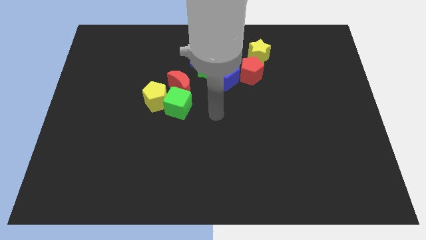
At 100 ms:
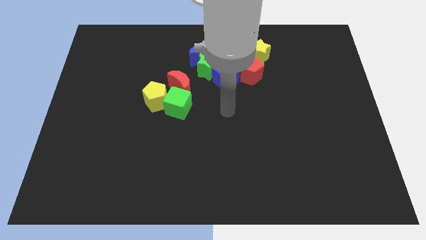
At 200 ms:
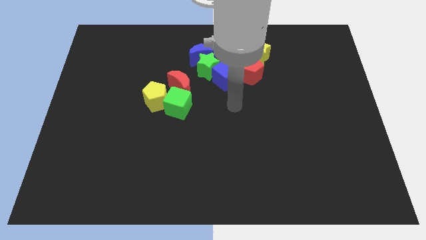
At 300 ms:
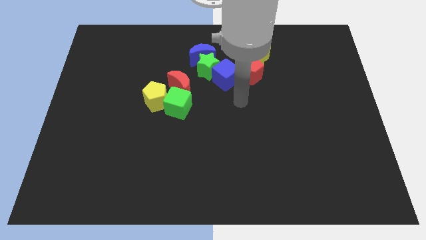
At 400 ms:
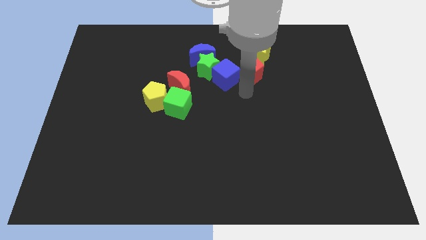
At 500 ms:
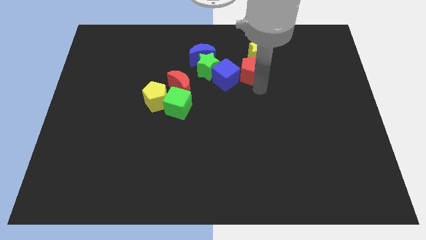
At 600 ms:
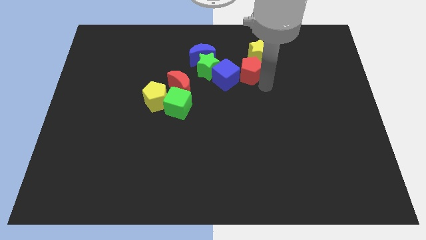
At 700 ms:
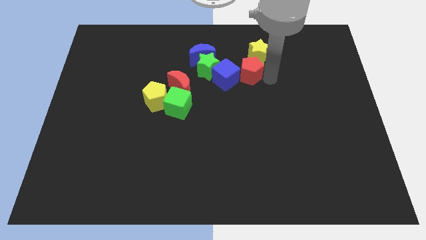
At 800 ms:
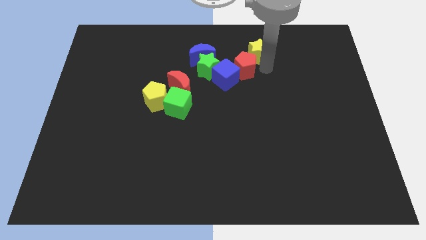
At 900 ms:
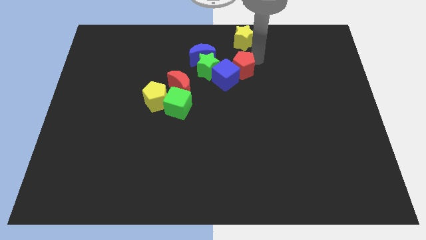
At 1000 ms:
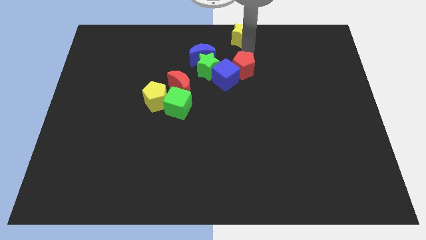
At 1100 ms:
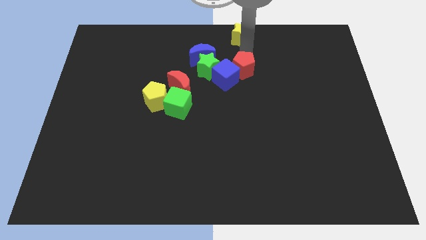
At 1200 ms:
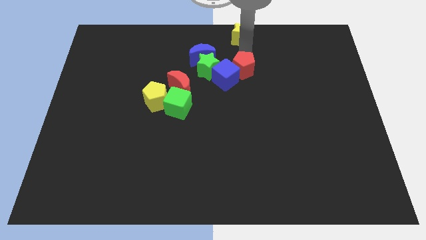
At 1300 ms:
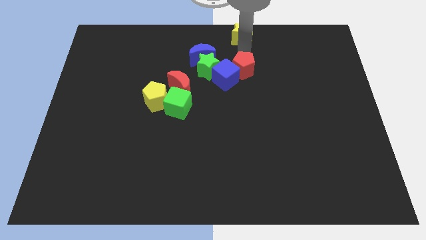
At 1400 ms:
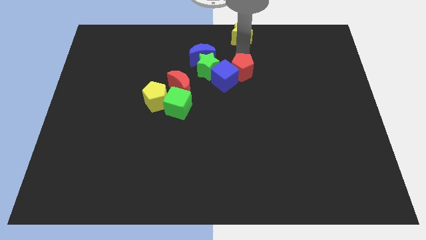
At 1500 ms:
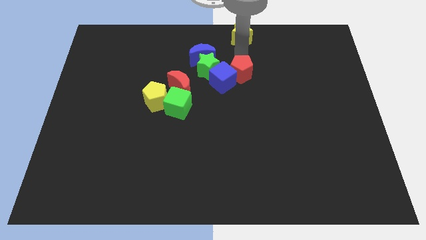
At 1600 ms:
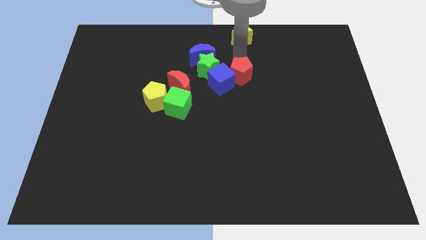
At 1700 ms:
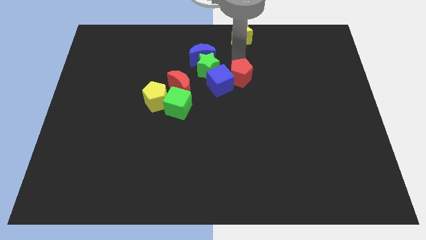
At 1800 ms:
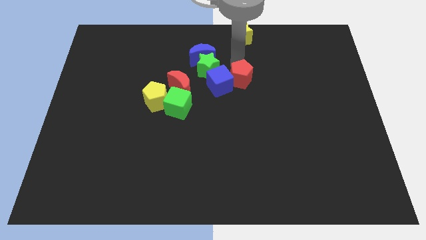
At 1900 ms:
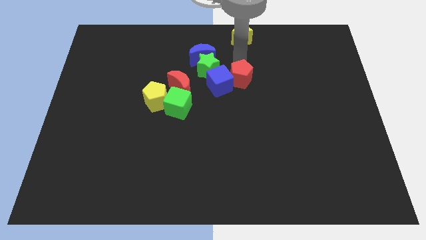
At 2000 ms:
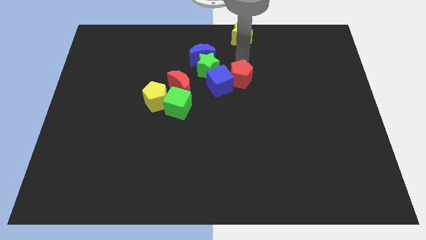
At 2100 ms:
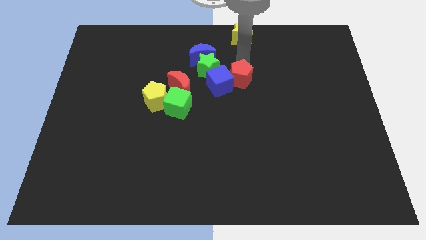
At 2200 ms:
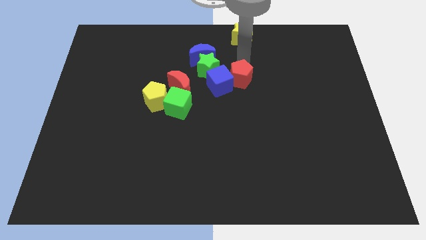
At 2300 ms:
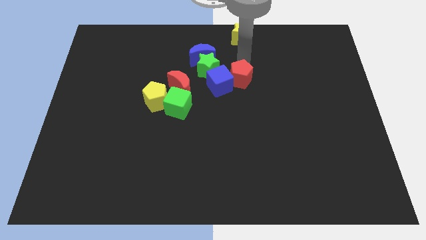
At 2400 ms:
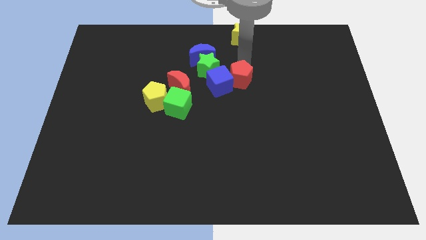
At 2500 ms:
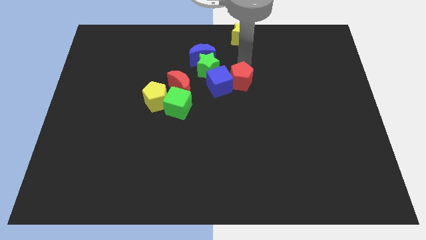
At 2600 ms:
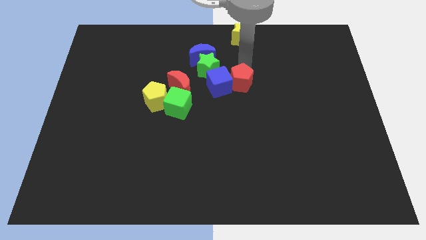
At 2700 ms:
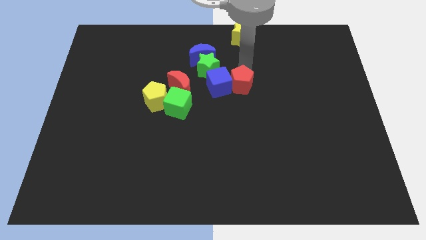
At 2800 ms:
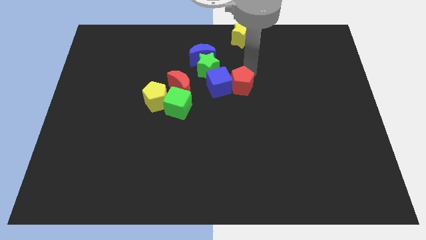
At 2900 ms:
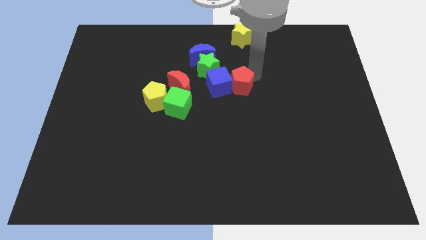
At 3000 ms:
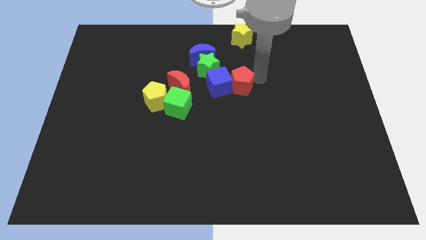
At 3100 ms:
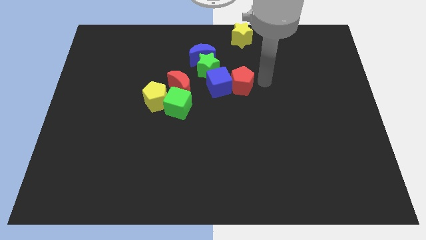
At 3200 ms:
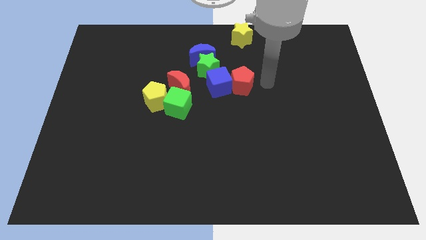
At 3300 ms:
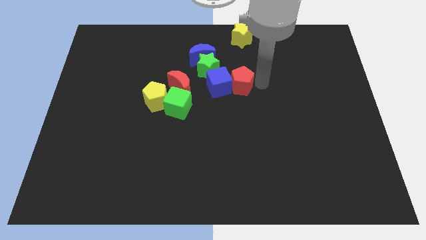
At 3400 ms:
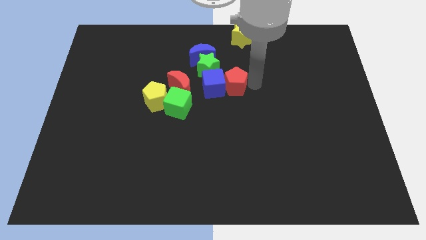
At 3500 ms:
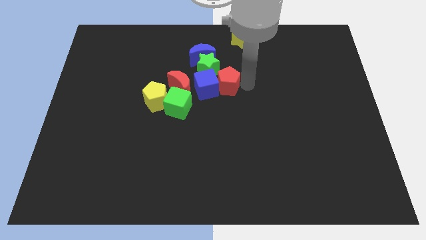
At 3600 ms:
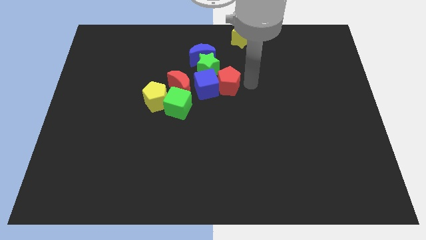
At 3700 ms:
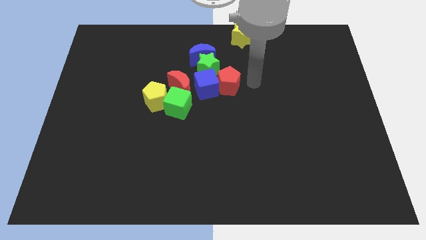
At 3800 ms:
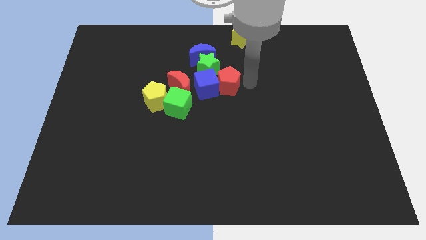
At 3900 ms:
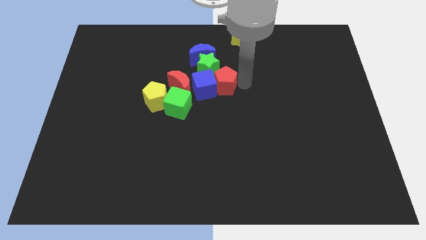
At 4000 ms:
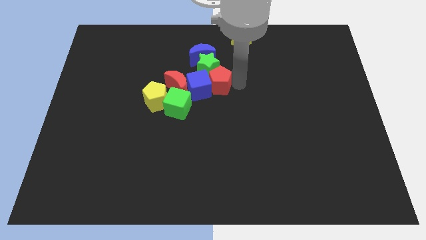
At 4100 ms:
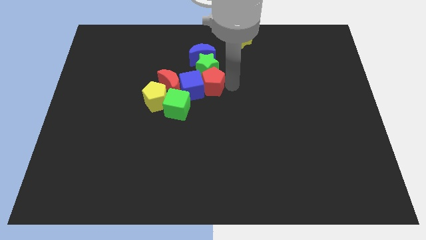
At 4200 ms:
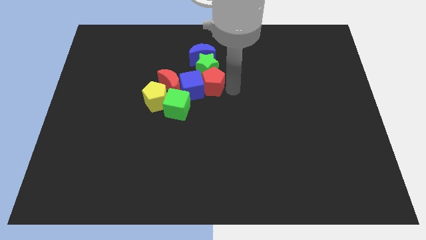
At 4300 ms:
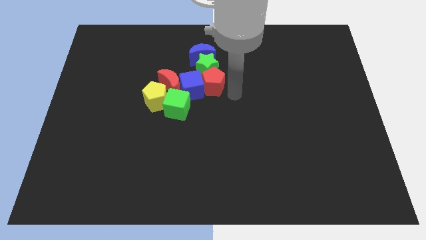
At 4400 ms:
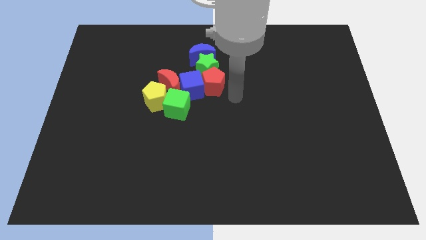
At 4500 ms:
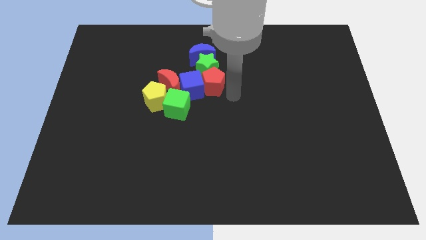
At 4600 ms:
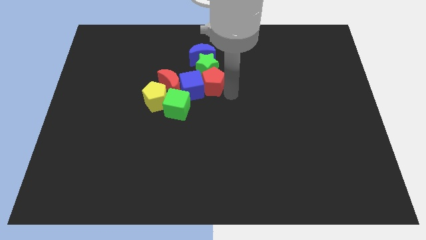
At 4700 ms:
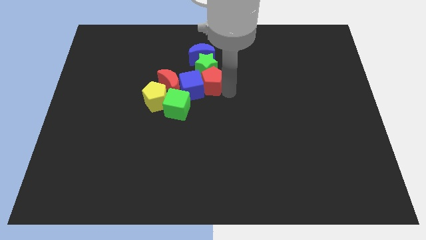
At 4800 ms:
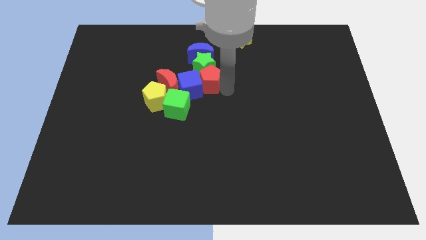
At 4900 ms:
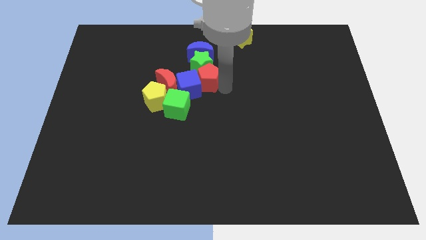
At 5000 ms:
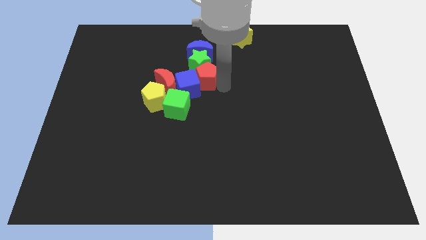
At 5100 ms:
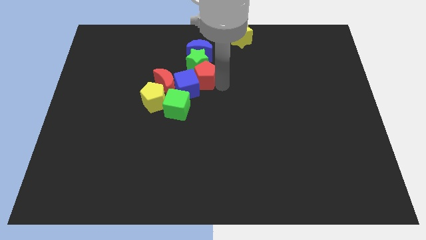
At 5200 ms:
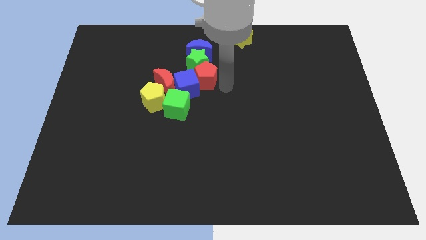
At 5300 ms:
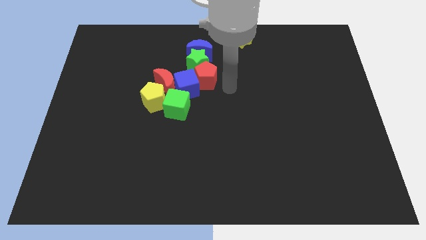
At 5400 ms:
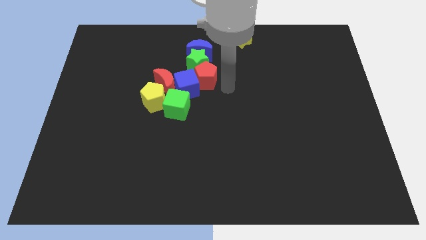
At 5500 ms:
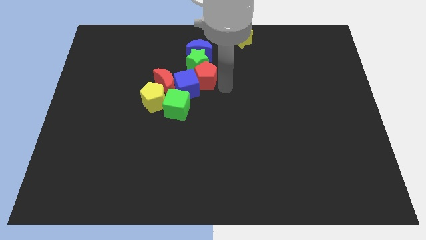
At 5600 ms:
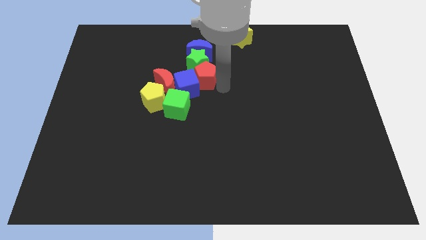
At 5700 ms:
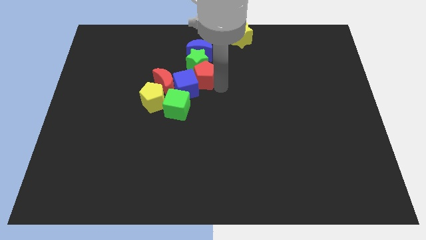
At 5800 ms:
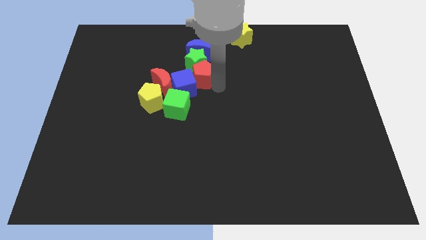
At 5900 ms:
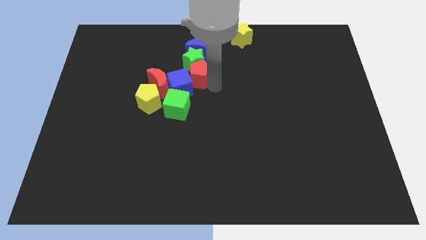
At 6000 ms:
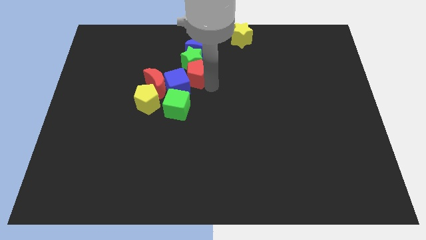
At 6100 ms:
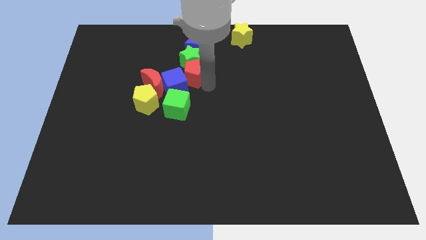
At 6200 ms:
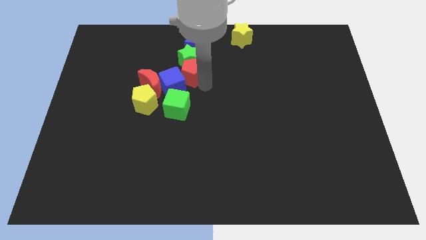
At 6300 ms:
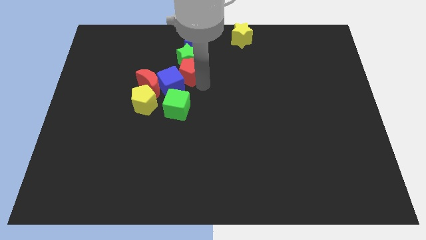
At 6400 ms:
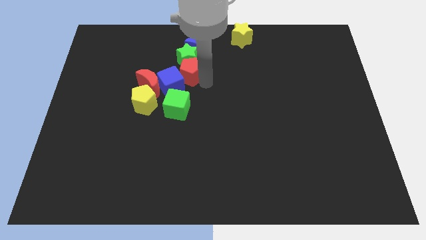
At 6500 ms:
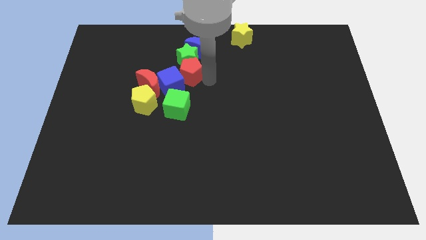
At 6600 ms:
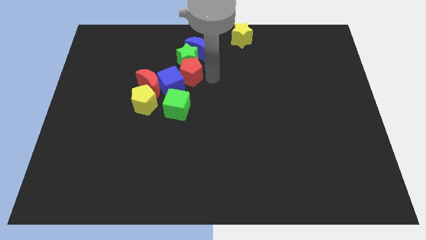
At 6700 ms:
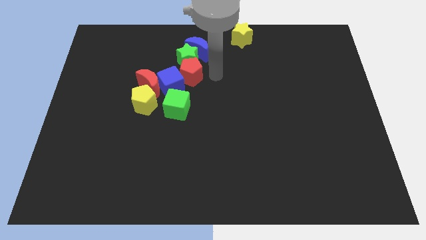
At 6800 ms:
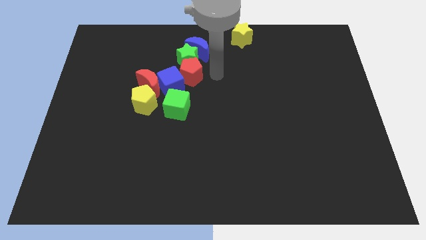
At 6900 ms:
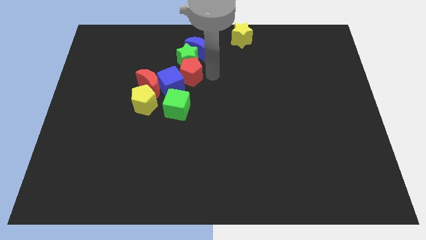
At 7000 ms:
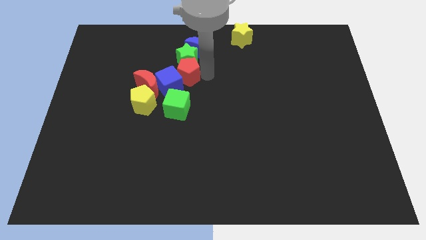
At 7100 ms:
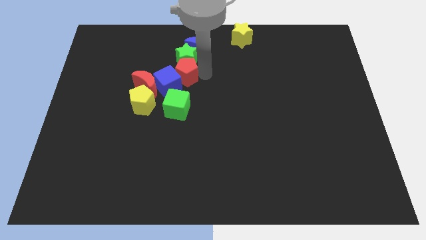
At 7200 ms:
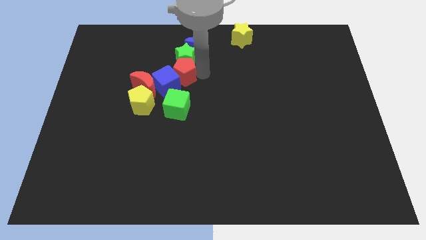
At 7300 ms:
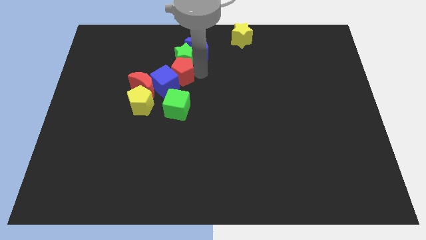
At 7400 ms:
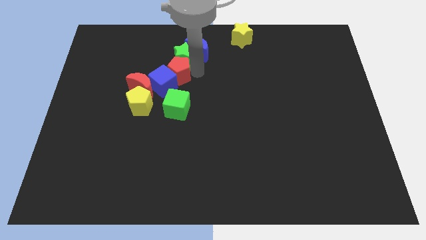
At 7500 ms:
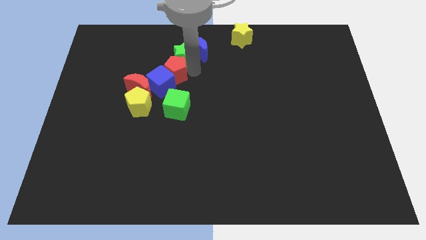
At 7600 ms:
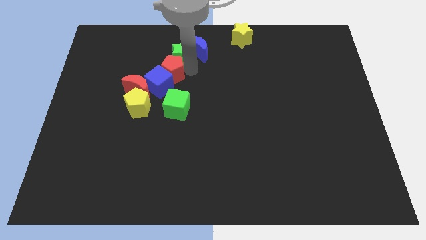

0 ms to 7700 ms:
move the red pentagon left

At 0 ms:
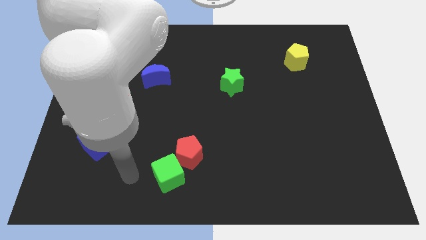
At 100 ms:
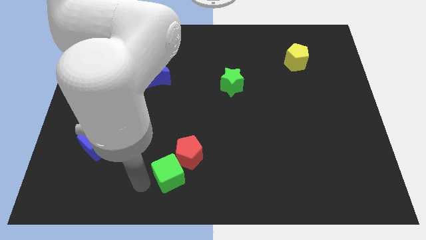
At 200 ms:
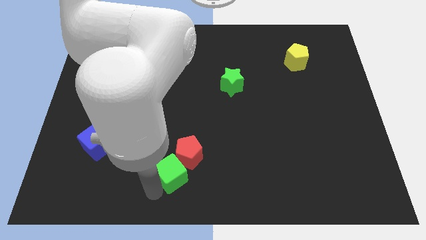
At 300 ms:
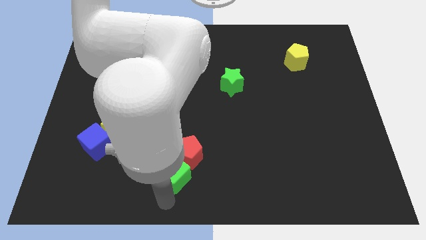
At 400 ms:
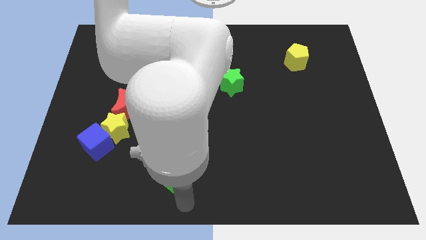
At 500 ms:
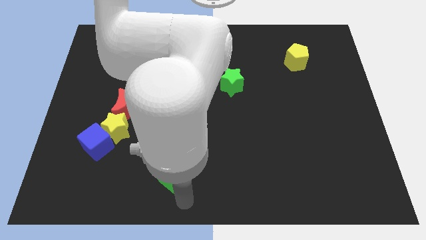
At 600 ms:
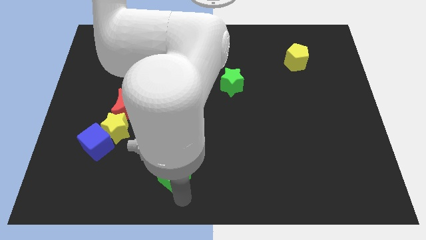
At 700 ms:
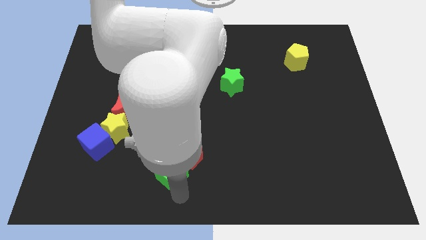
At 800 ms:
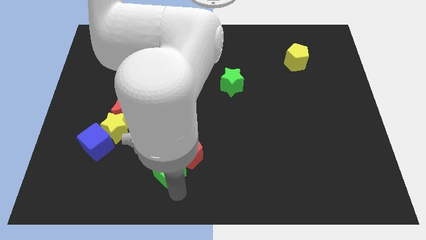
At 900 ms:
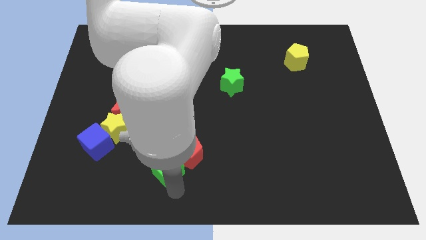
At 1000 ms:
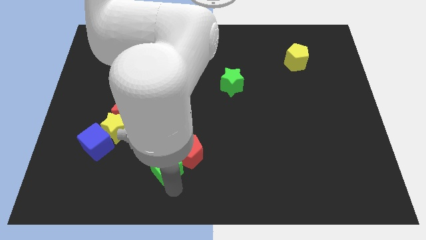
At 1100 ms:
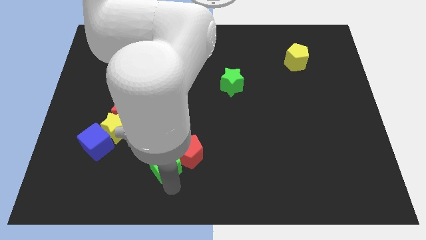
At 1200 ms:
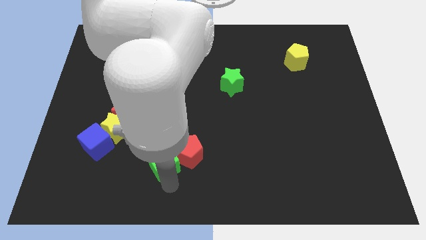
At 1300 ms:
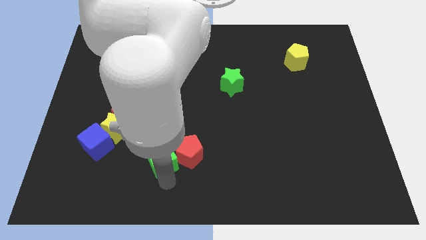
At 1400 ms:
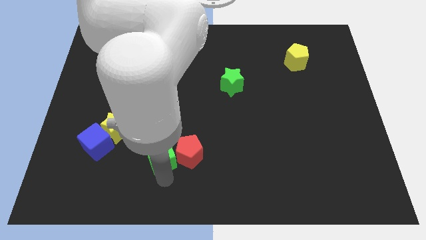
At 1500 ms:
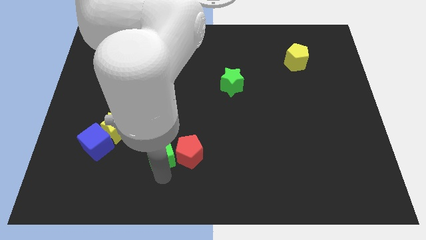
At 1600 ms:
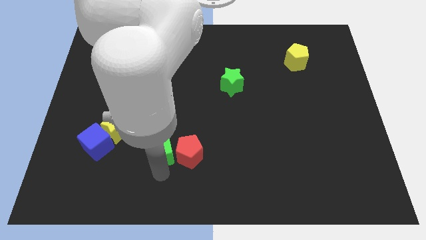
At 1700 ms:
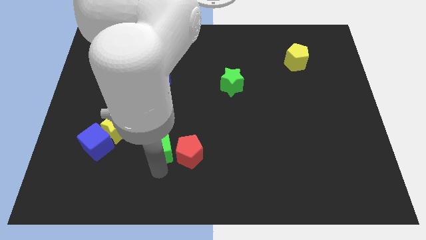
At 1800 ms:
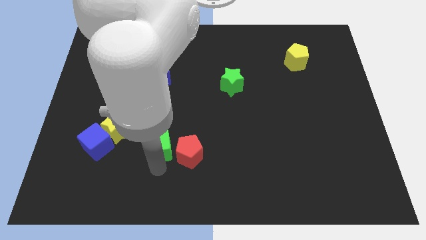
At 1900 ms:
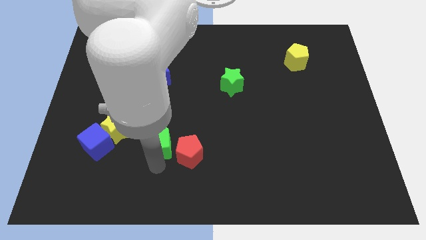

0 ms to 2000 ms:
slide the green cube a little bit up
